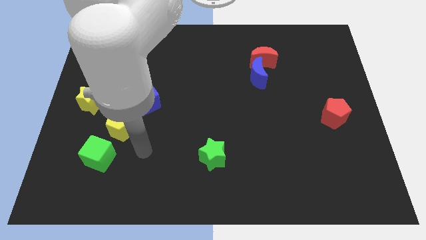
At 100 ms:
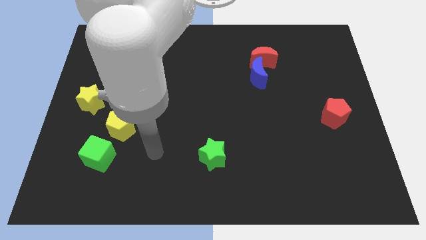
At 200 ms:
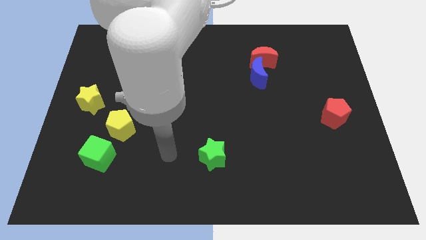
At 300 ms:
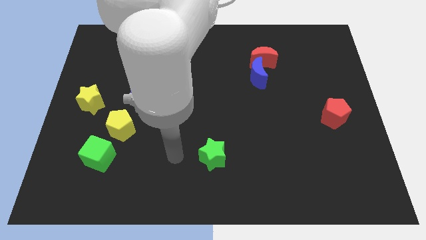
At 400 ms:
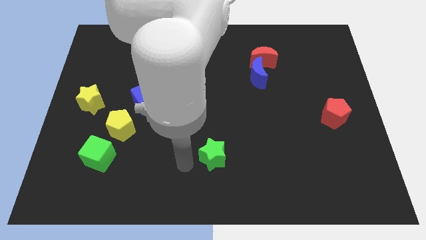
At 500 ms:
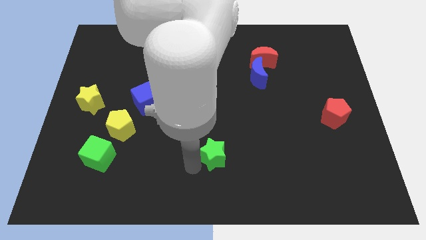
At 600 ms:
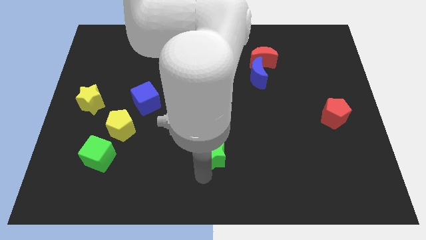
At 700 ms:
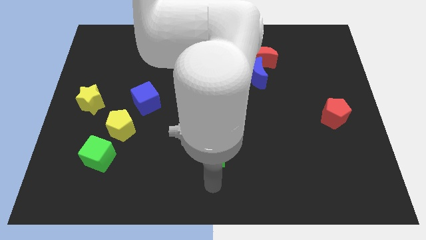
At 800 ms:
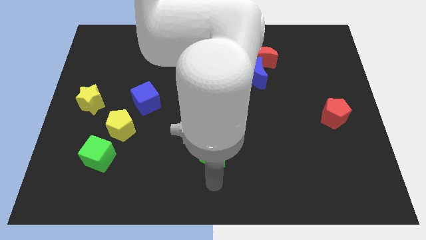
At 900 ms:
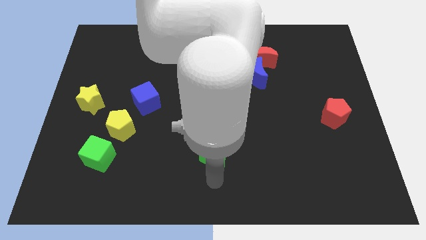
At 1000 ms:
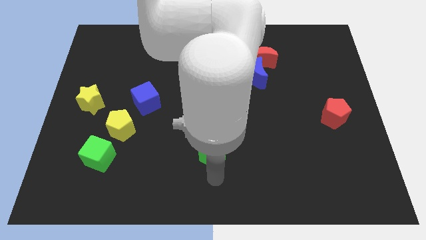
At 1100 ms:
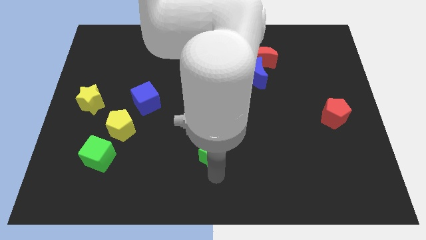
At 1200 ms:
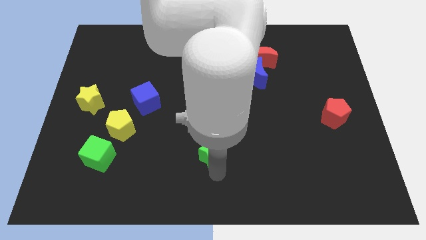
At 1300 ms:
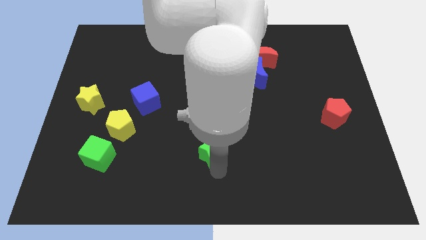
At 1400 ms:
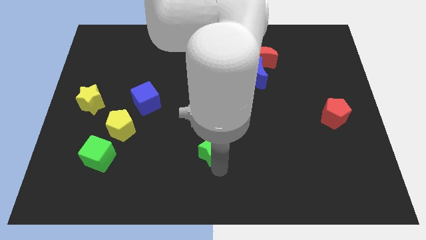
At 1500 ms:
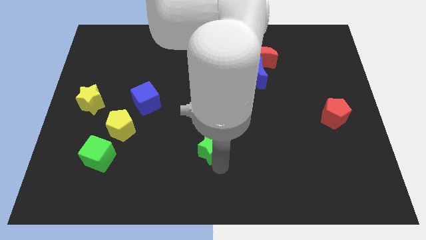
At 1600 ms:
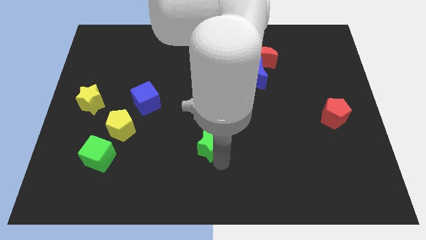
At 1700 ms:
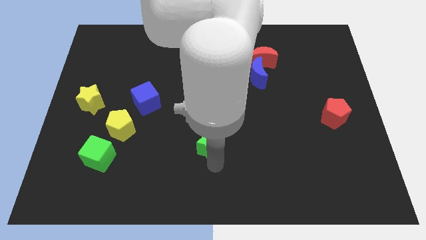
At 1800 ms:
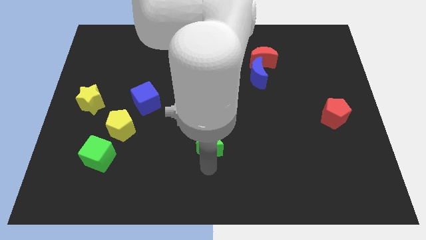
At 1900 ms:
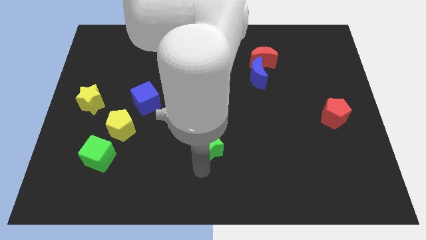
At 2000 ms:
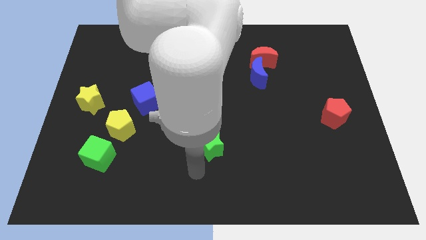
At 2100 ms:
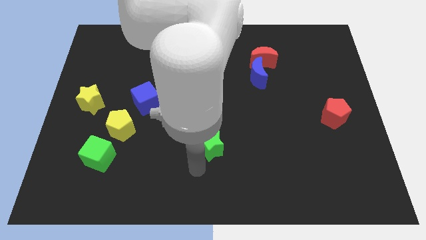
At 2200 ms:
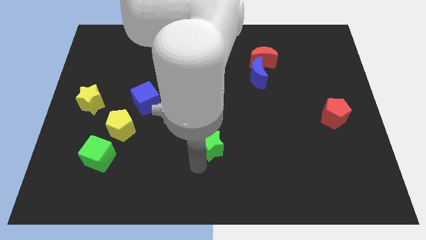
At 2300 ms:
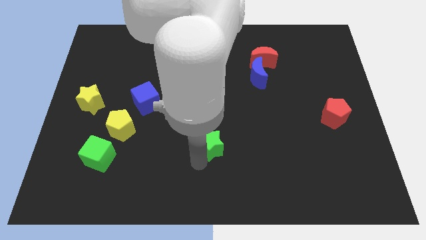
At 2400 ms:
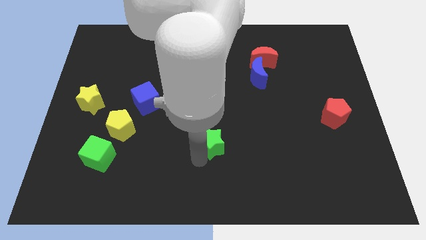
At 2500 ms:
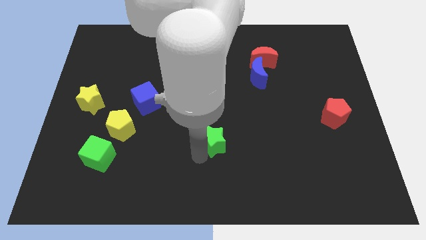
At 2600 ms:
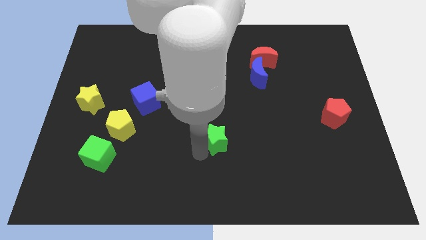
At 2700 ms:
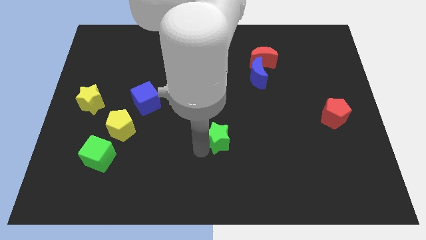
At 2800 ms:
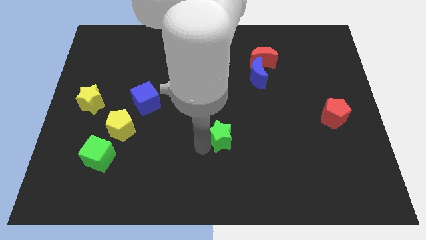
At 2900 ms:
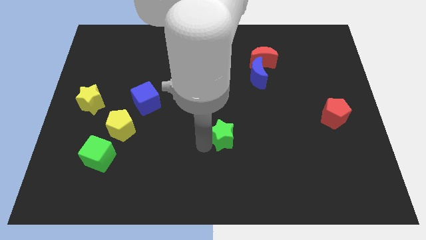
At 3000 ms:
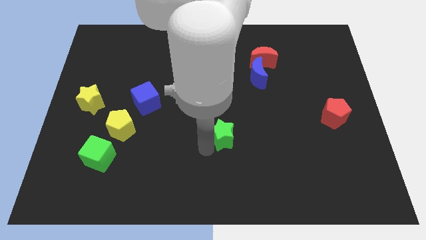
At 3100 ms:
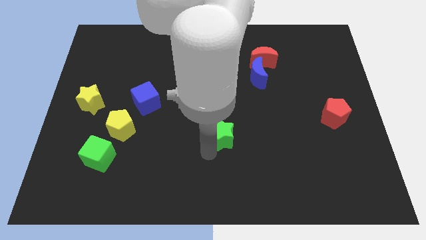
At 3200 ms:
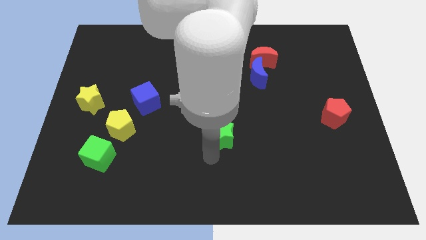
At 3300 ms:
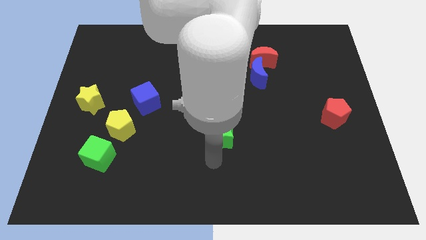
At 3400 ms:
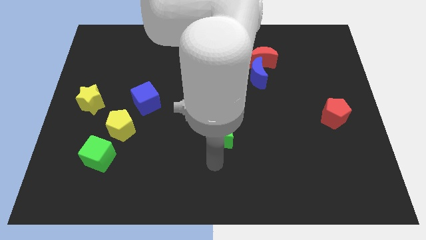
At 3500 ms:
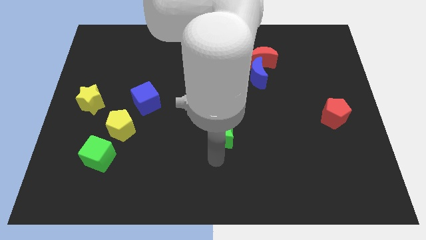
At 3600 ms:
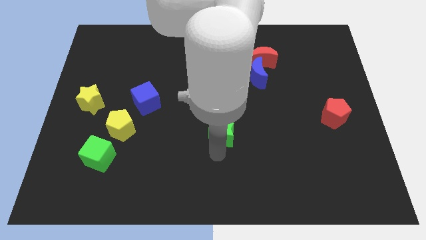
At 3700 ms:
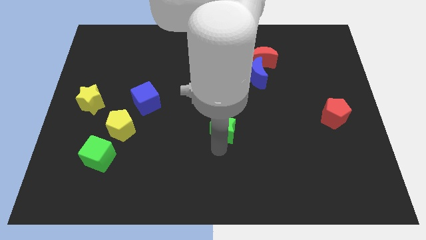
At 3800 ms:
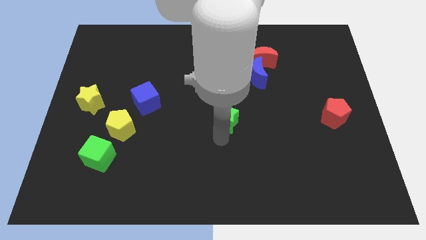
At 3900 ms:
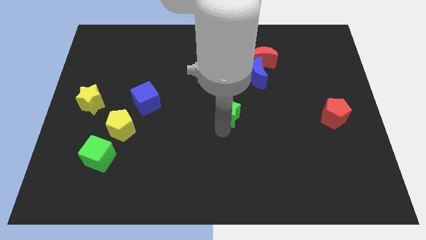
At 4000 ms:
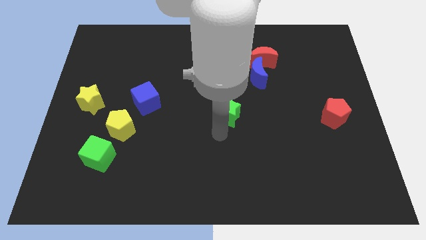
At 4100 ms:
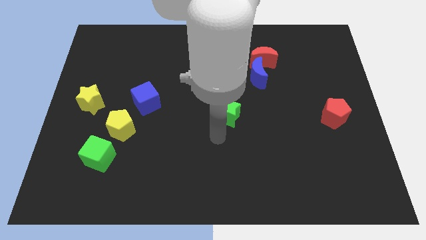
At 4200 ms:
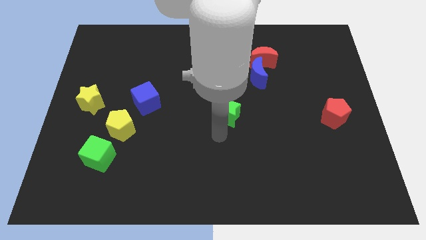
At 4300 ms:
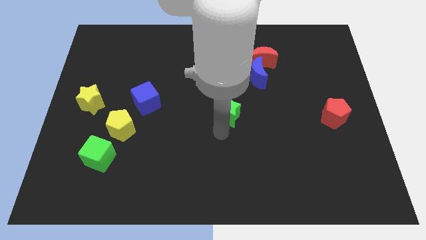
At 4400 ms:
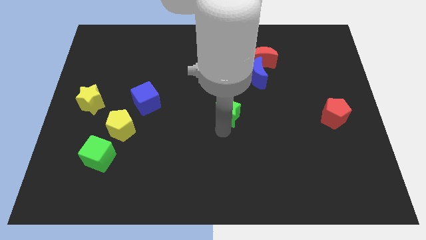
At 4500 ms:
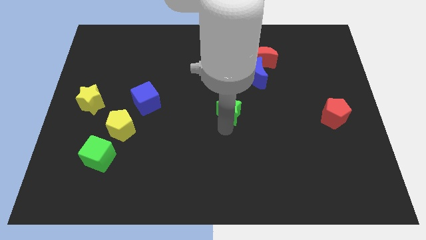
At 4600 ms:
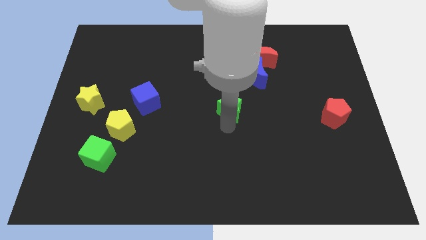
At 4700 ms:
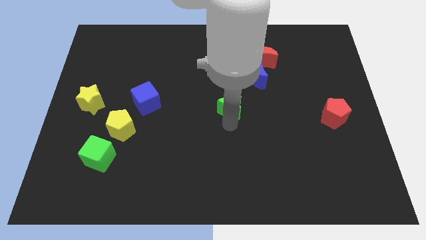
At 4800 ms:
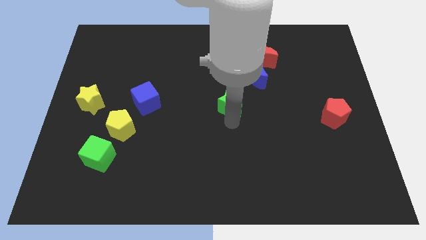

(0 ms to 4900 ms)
move the green star to the bottom left of the blue moon

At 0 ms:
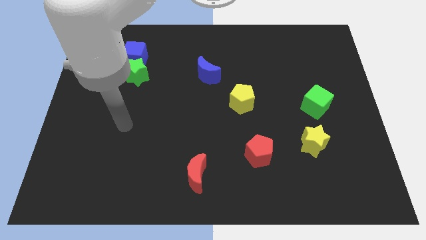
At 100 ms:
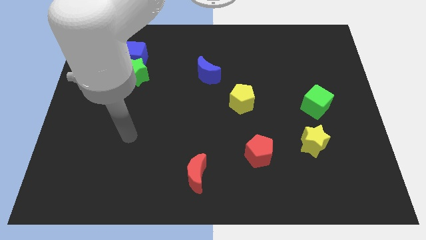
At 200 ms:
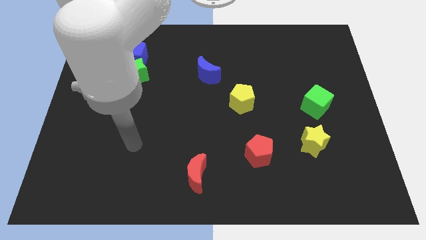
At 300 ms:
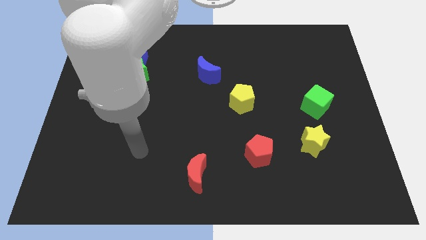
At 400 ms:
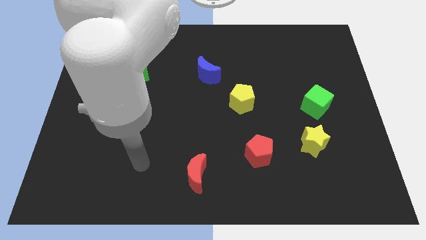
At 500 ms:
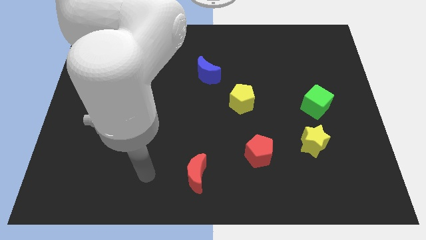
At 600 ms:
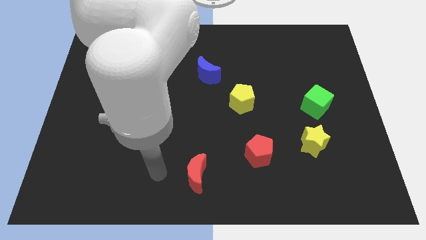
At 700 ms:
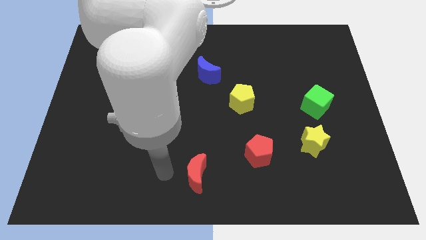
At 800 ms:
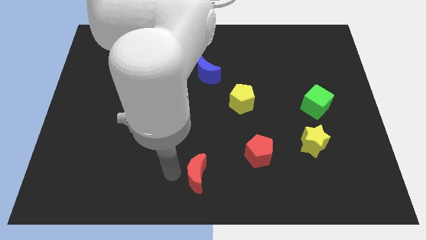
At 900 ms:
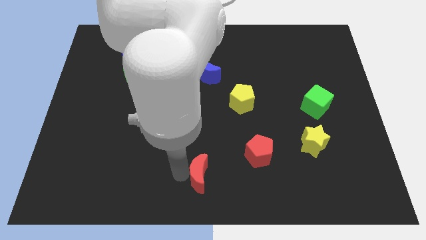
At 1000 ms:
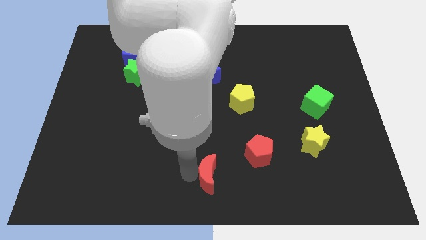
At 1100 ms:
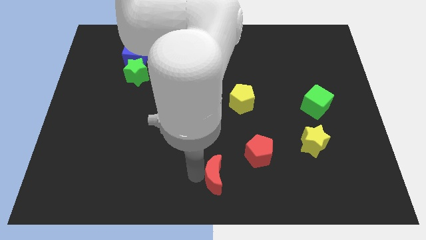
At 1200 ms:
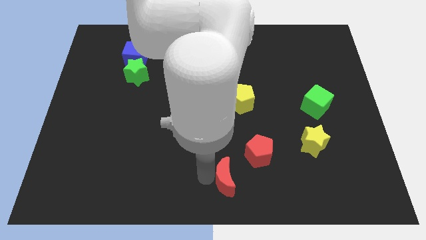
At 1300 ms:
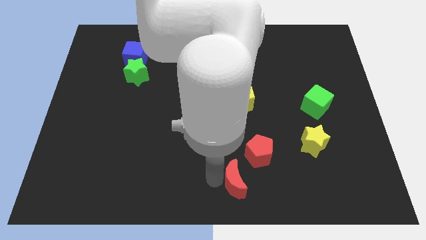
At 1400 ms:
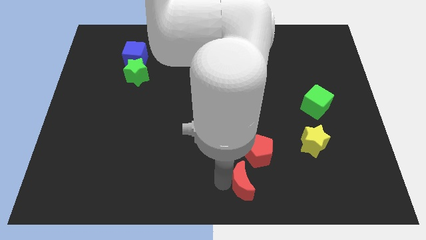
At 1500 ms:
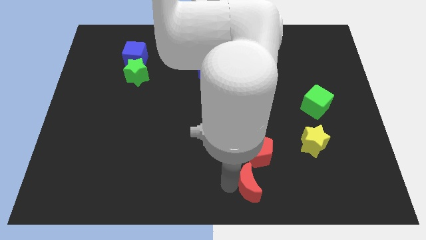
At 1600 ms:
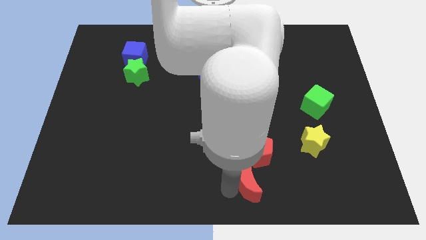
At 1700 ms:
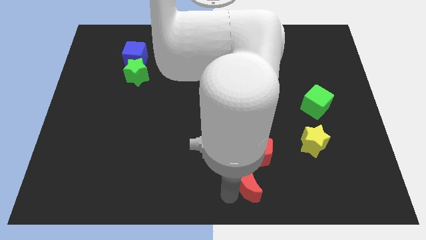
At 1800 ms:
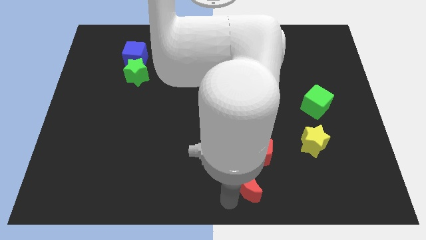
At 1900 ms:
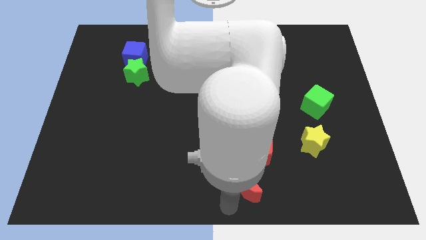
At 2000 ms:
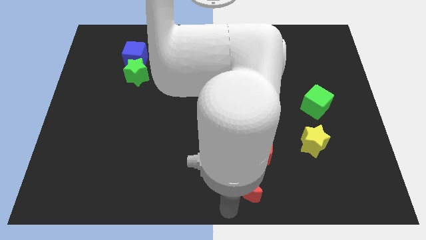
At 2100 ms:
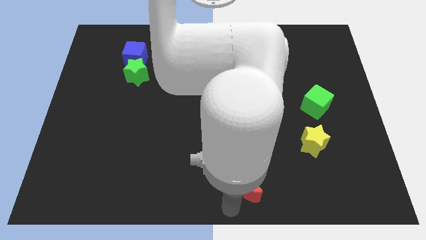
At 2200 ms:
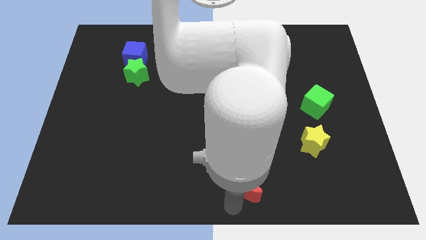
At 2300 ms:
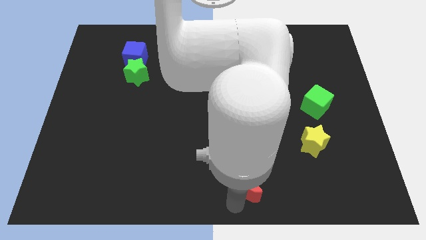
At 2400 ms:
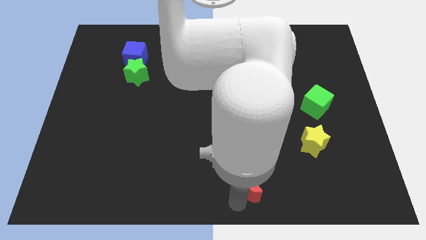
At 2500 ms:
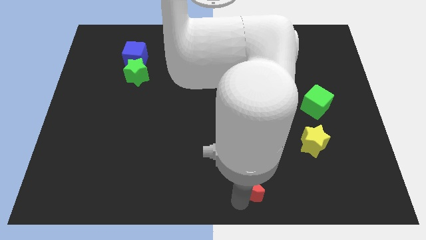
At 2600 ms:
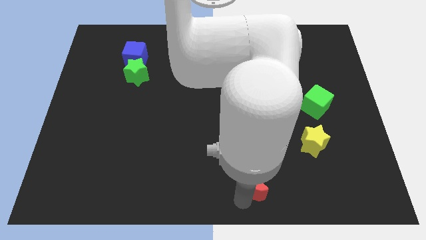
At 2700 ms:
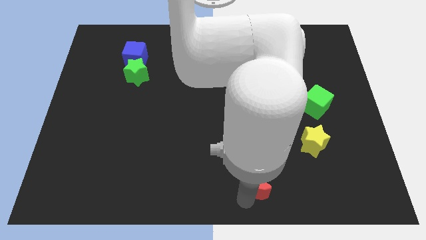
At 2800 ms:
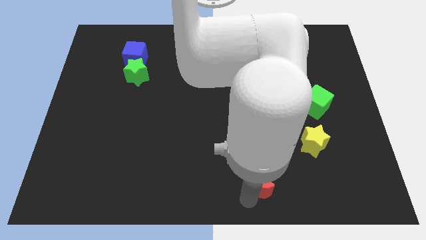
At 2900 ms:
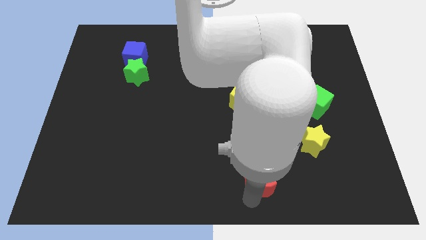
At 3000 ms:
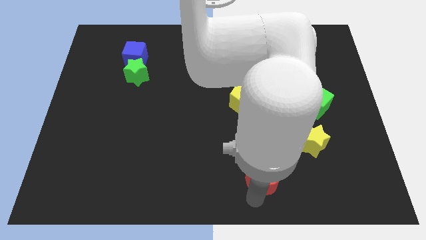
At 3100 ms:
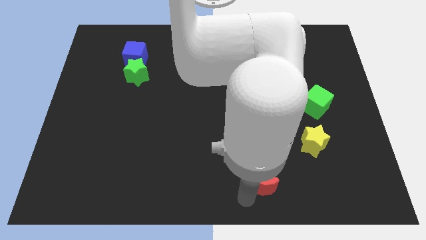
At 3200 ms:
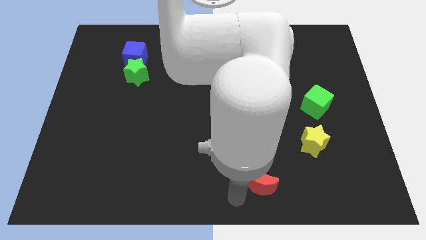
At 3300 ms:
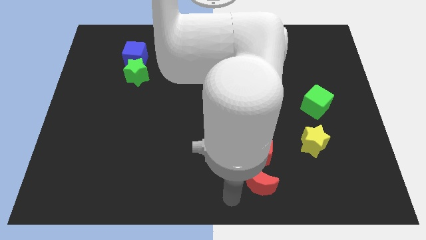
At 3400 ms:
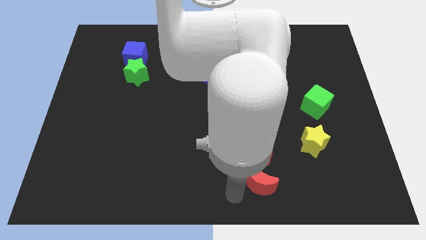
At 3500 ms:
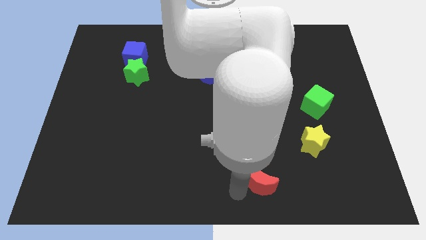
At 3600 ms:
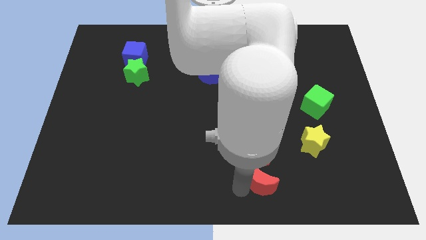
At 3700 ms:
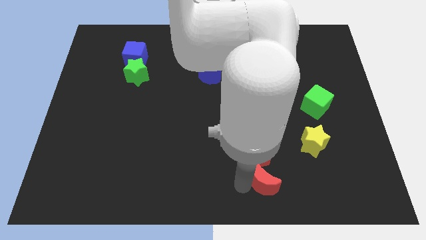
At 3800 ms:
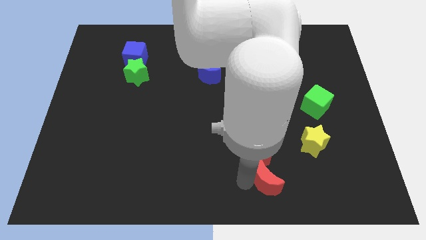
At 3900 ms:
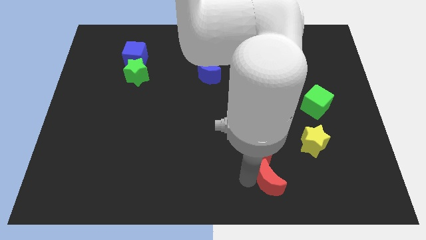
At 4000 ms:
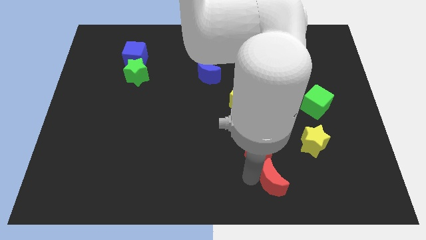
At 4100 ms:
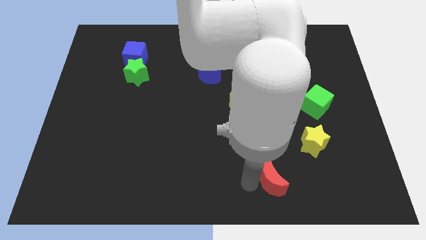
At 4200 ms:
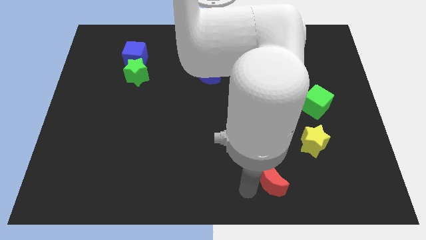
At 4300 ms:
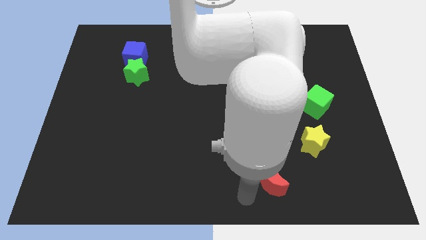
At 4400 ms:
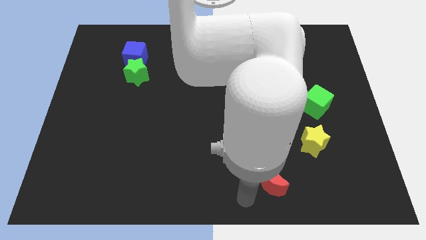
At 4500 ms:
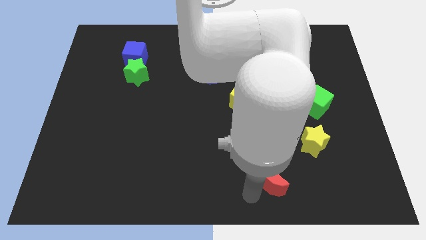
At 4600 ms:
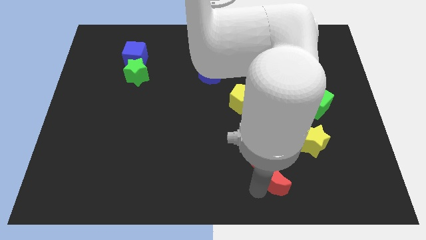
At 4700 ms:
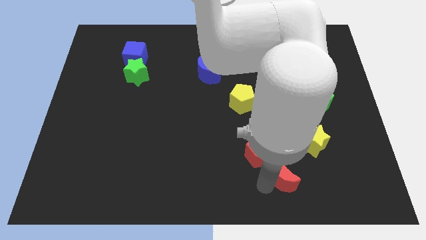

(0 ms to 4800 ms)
push the red moon diagonally down and to the left of the yellow star
